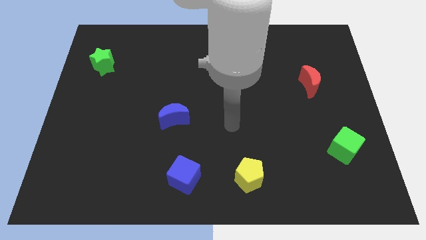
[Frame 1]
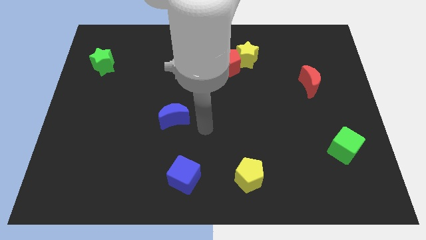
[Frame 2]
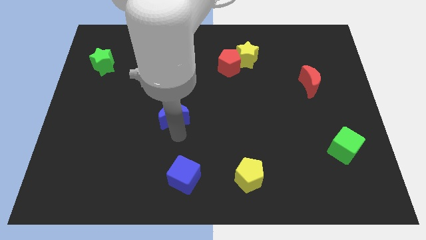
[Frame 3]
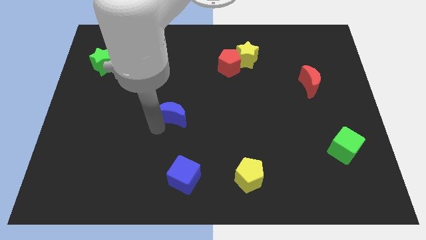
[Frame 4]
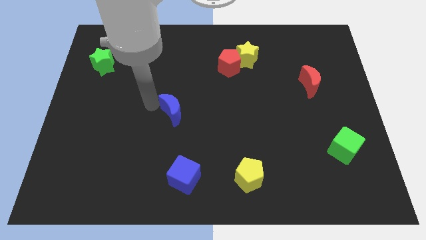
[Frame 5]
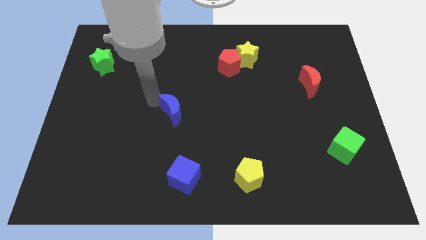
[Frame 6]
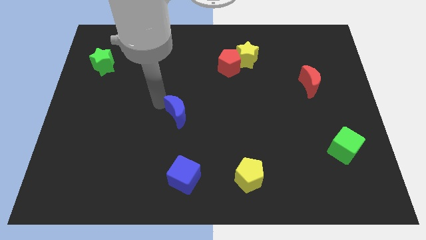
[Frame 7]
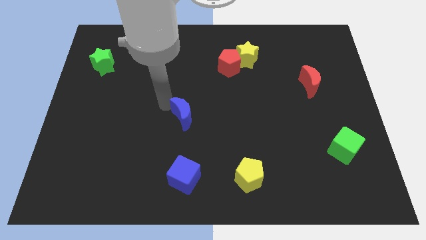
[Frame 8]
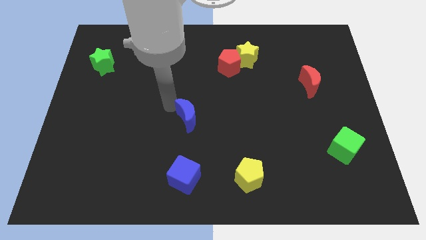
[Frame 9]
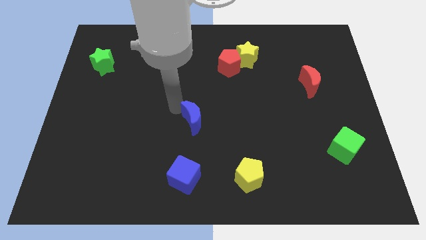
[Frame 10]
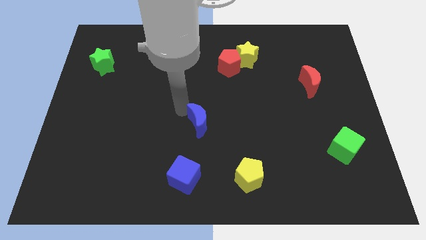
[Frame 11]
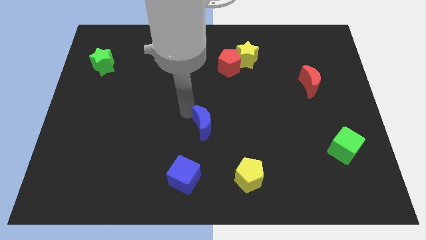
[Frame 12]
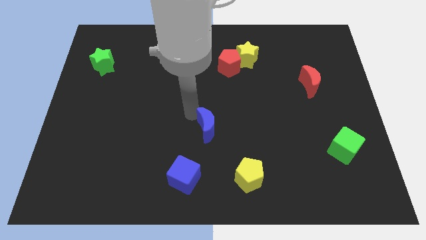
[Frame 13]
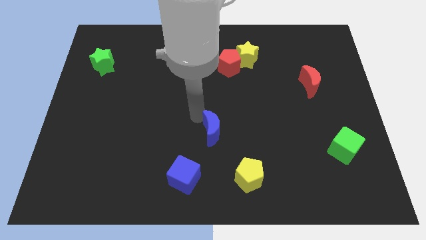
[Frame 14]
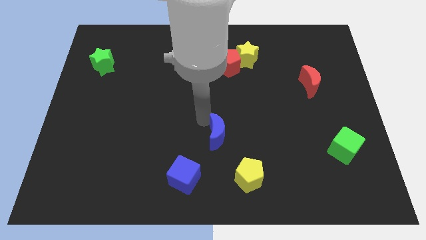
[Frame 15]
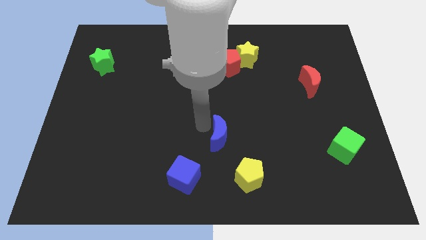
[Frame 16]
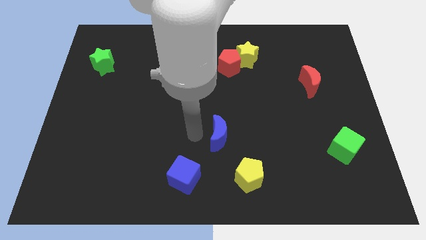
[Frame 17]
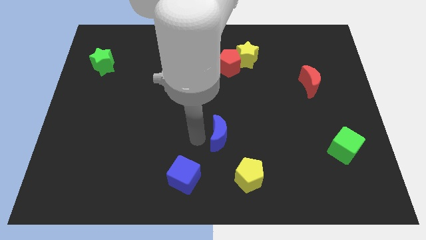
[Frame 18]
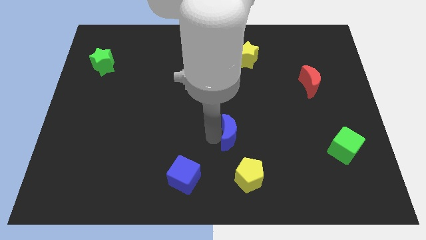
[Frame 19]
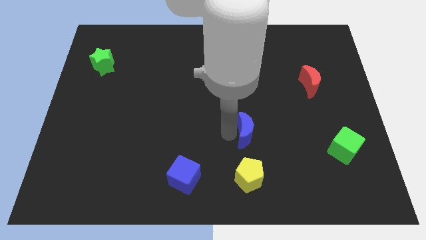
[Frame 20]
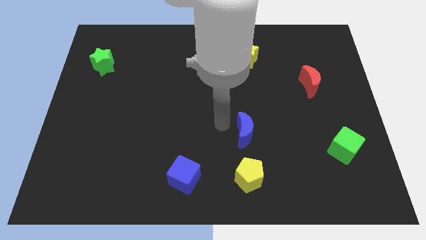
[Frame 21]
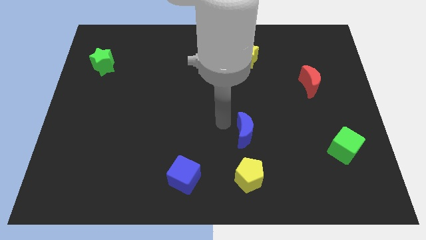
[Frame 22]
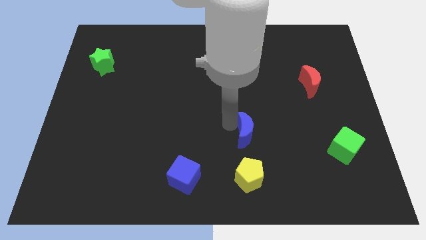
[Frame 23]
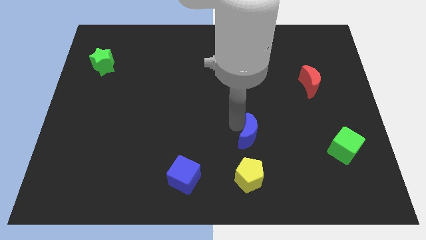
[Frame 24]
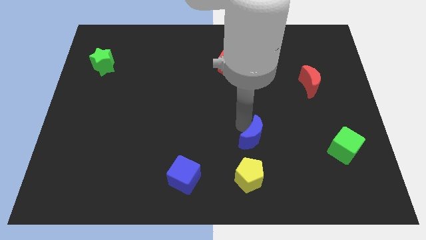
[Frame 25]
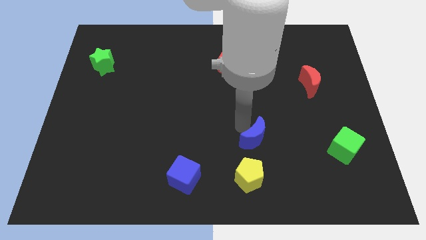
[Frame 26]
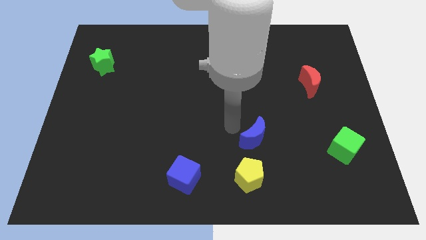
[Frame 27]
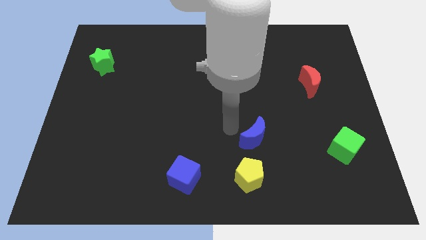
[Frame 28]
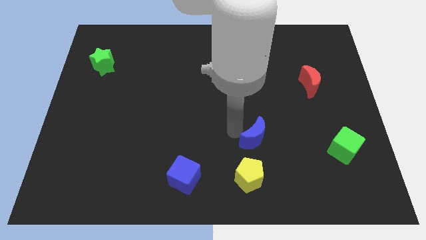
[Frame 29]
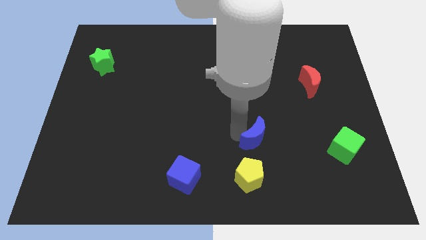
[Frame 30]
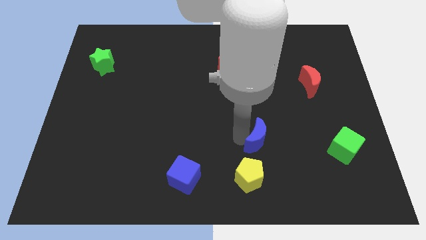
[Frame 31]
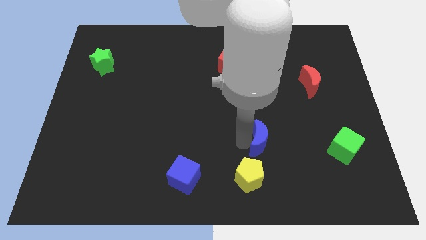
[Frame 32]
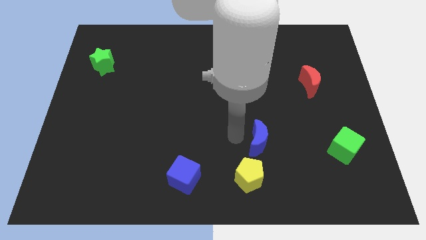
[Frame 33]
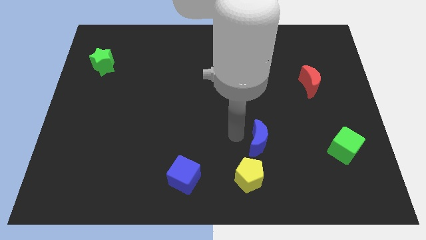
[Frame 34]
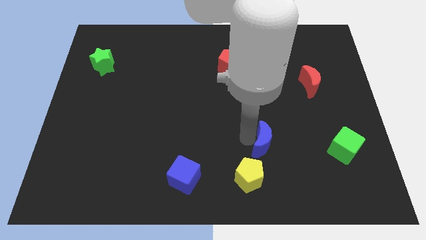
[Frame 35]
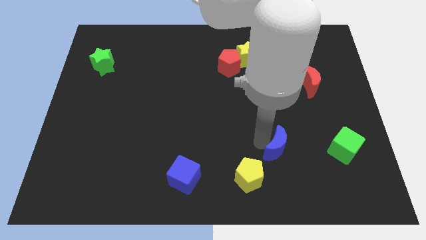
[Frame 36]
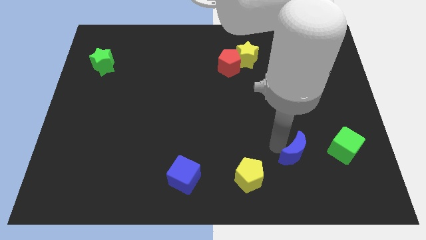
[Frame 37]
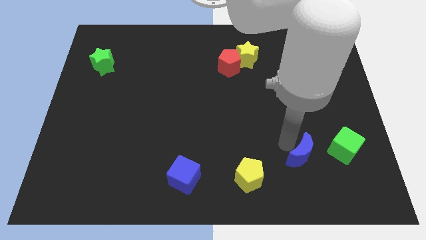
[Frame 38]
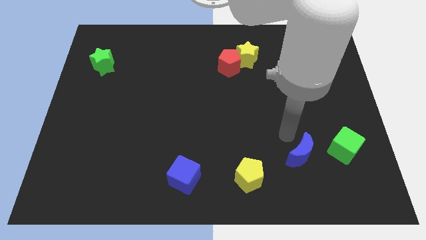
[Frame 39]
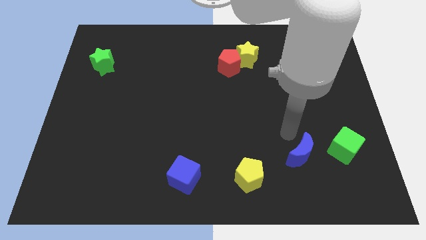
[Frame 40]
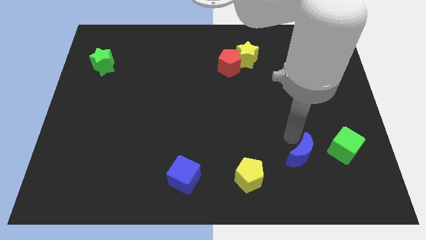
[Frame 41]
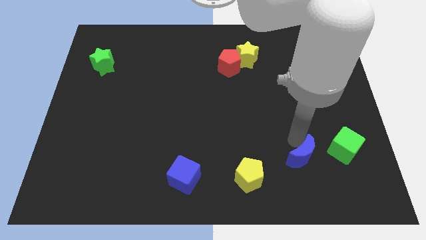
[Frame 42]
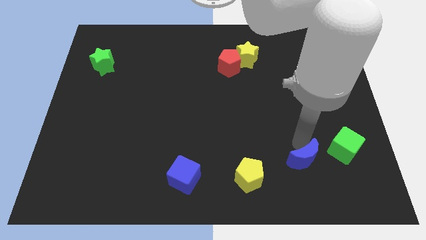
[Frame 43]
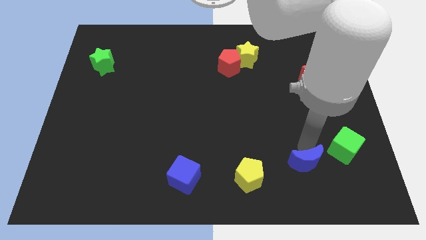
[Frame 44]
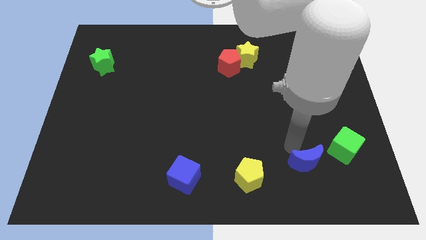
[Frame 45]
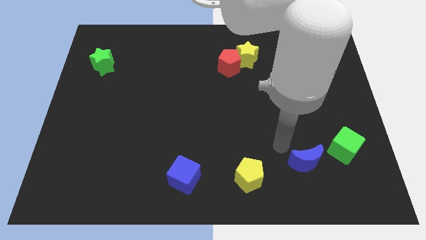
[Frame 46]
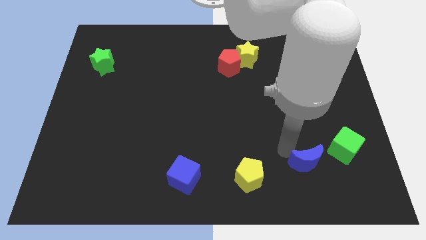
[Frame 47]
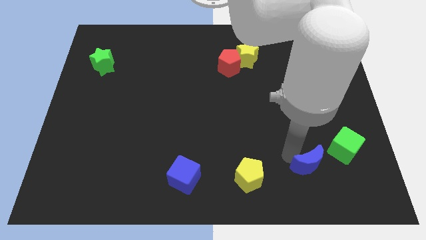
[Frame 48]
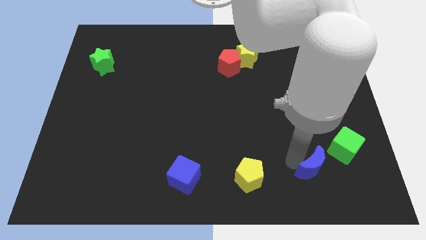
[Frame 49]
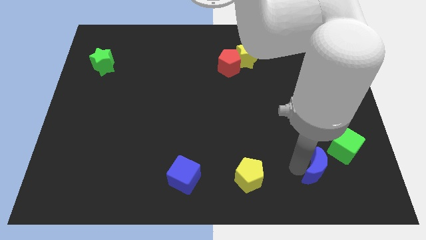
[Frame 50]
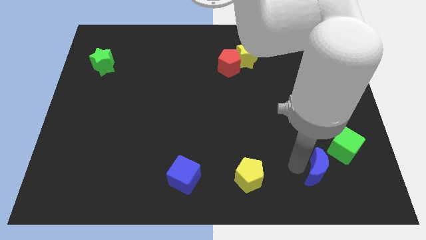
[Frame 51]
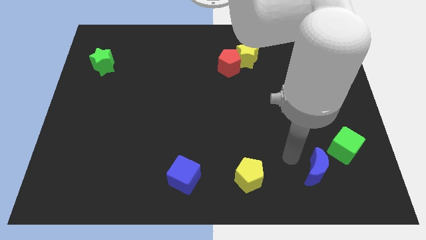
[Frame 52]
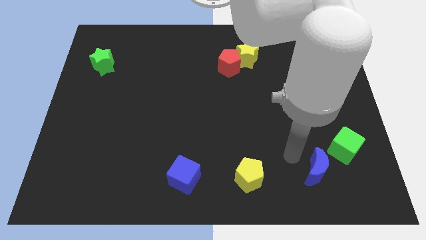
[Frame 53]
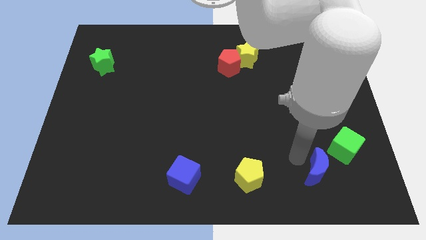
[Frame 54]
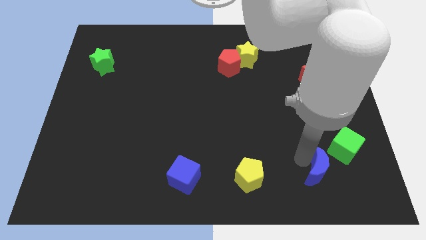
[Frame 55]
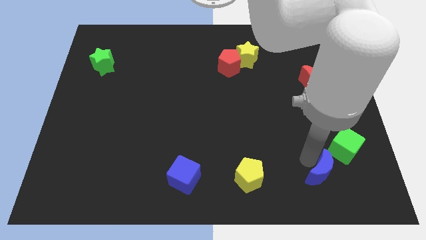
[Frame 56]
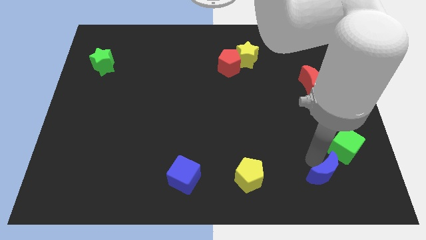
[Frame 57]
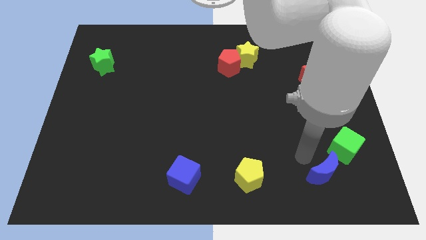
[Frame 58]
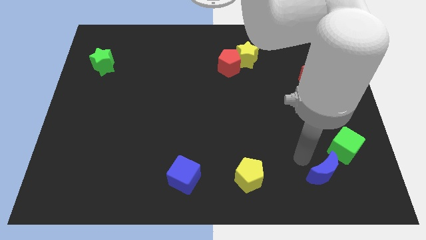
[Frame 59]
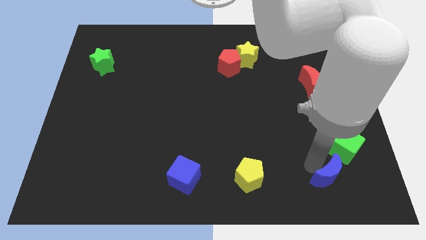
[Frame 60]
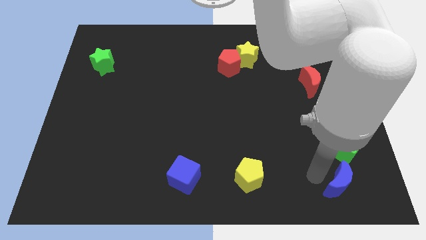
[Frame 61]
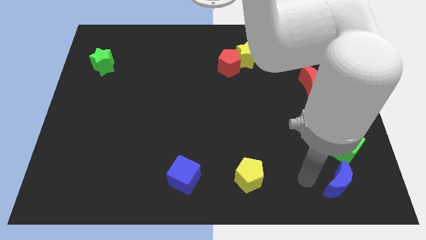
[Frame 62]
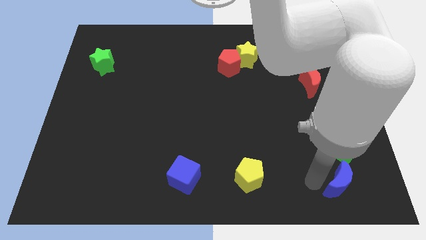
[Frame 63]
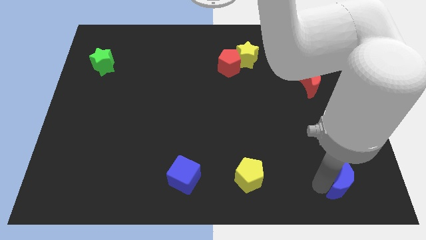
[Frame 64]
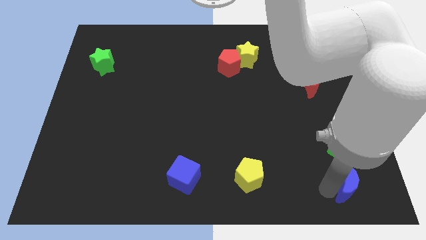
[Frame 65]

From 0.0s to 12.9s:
push the blue moon to the bottom right corner

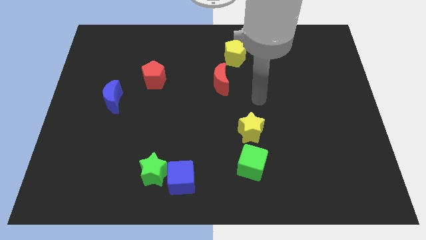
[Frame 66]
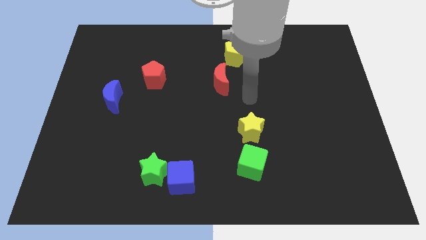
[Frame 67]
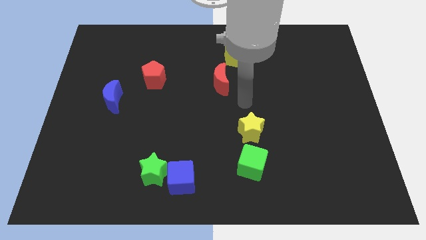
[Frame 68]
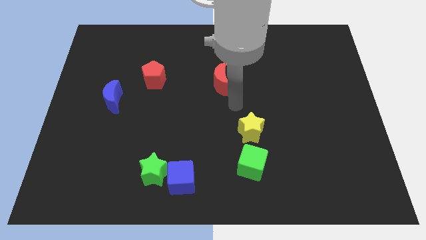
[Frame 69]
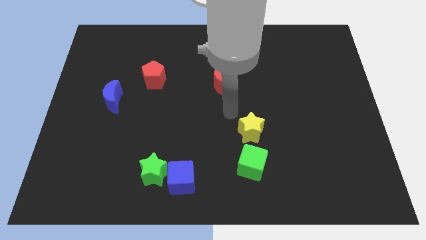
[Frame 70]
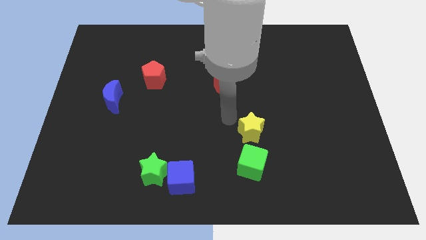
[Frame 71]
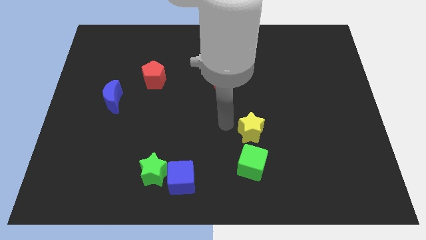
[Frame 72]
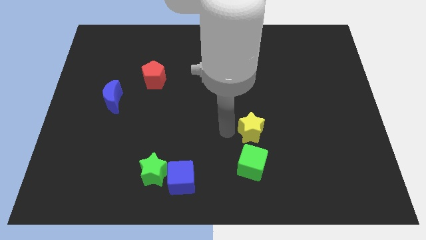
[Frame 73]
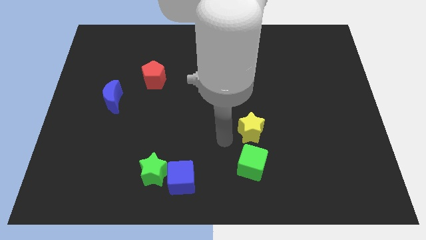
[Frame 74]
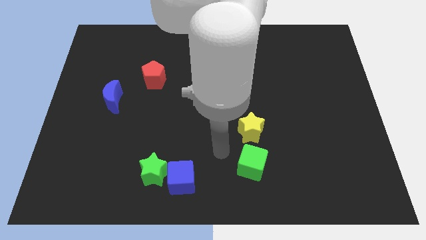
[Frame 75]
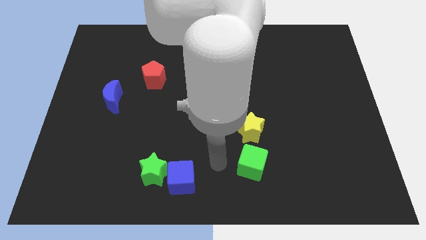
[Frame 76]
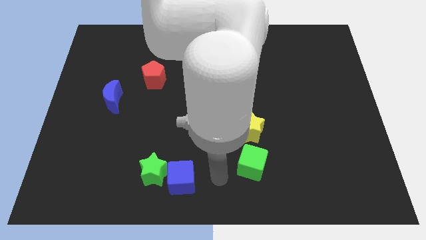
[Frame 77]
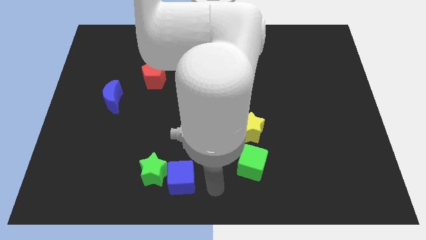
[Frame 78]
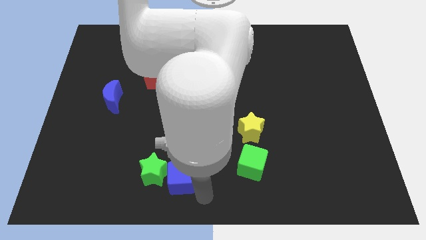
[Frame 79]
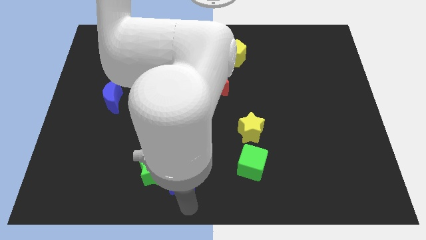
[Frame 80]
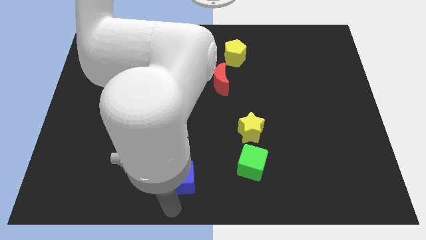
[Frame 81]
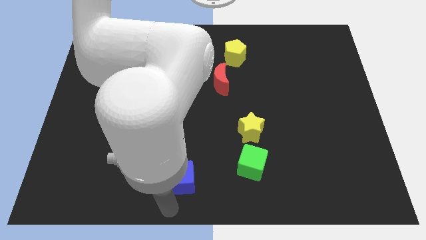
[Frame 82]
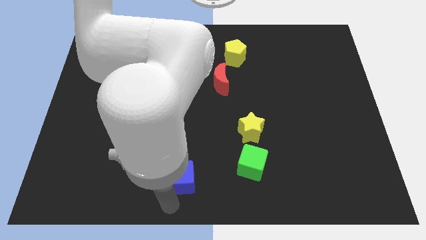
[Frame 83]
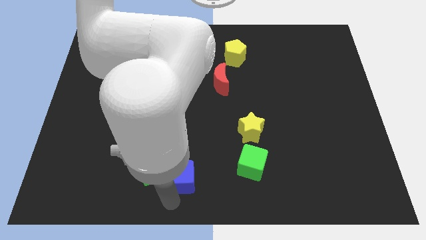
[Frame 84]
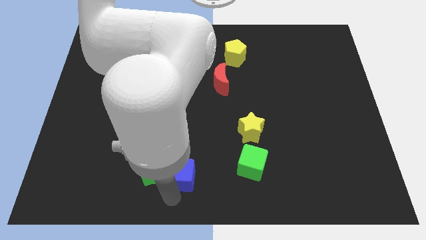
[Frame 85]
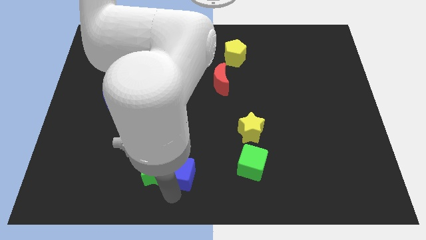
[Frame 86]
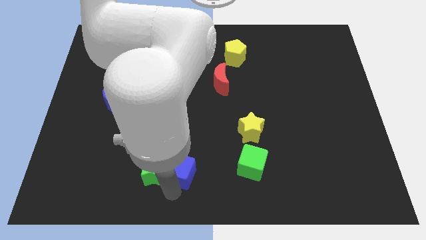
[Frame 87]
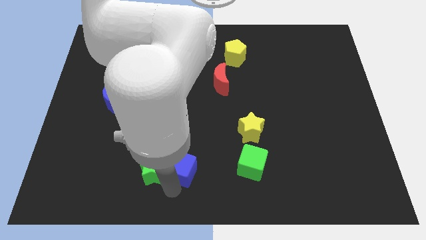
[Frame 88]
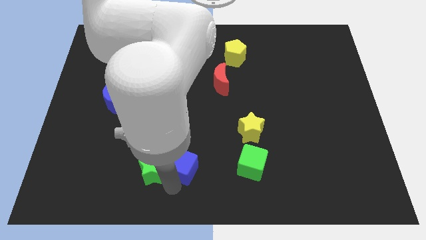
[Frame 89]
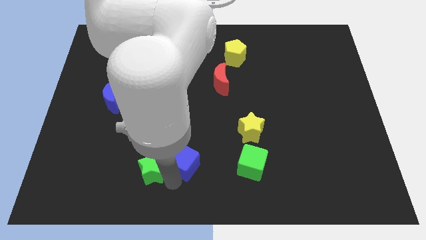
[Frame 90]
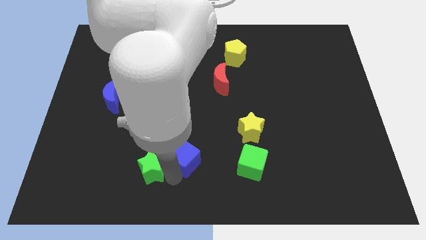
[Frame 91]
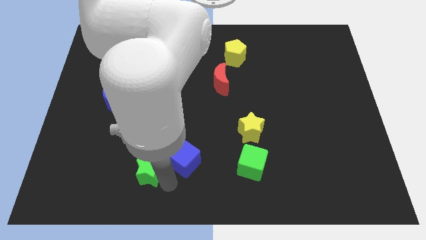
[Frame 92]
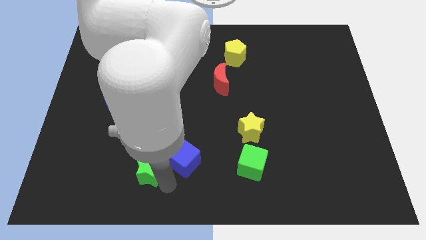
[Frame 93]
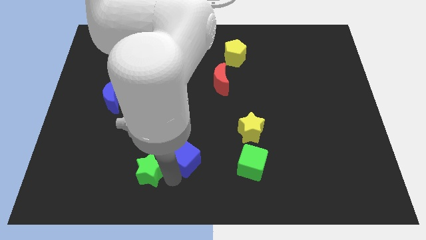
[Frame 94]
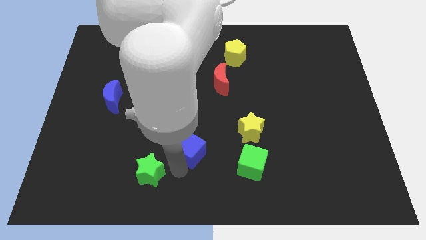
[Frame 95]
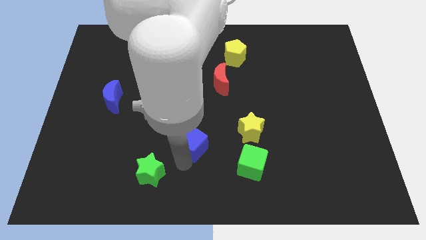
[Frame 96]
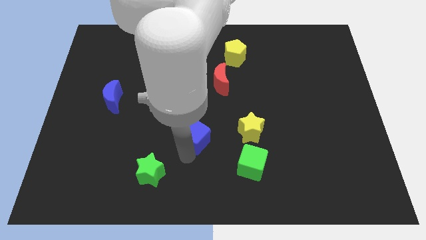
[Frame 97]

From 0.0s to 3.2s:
move the blue cube to the center
